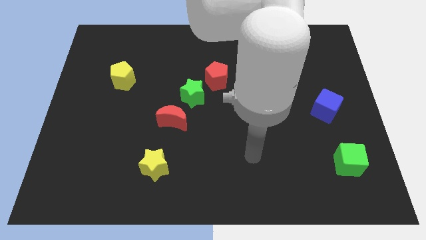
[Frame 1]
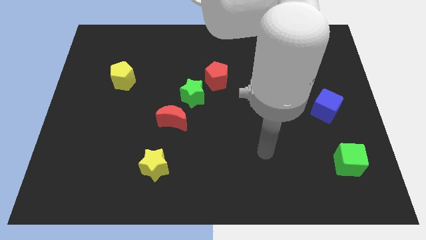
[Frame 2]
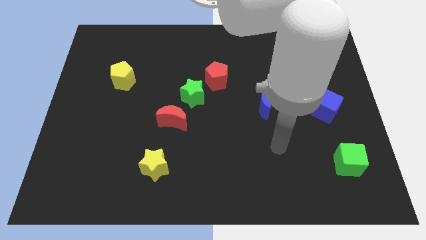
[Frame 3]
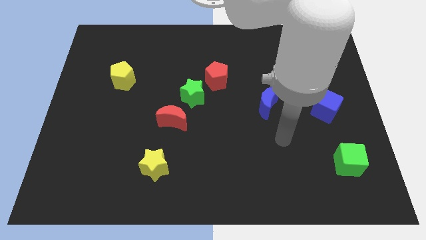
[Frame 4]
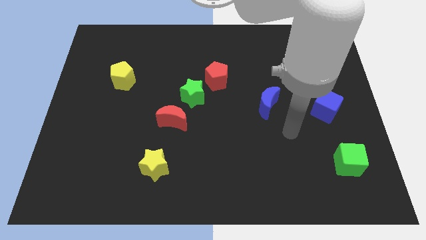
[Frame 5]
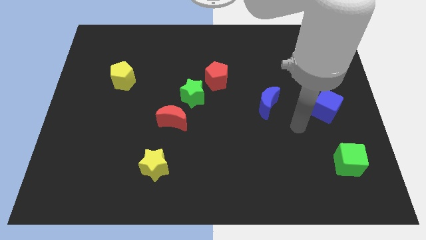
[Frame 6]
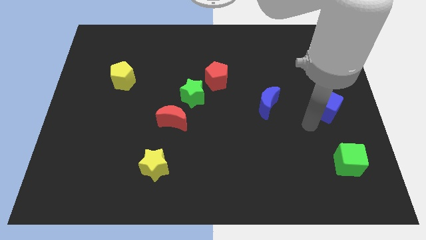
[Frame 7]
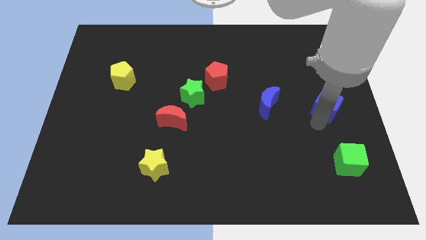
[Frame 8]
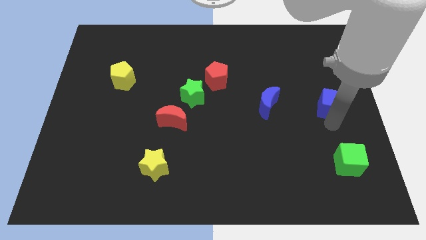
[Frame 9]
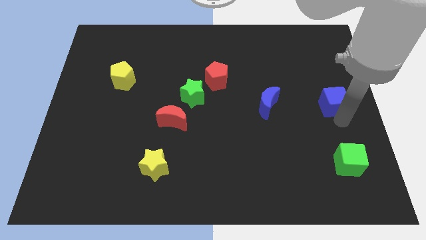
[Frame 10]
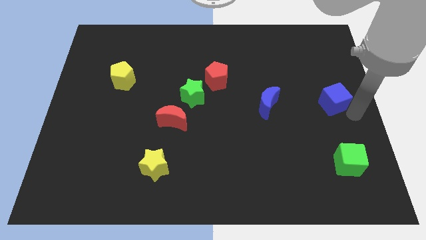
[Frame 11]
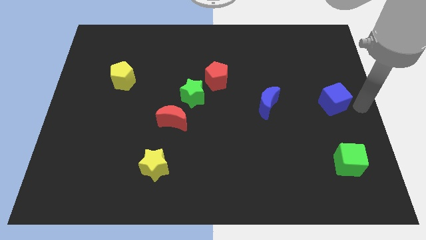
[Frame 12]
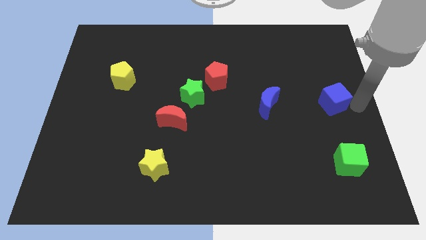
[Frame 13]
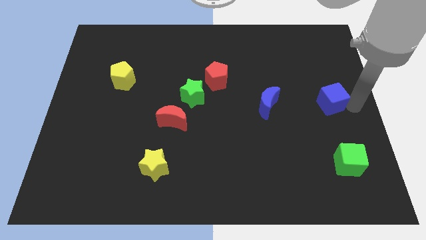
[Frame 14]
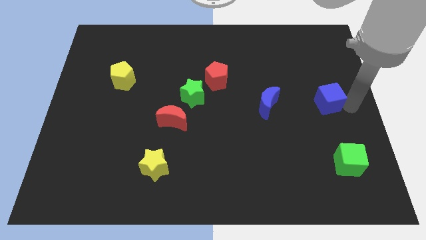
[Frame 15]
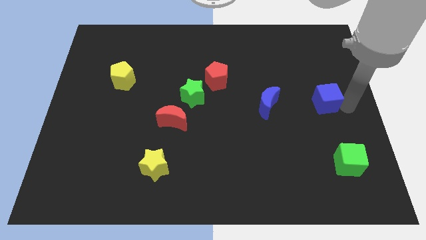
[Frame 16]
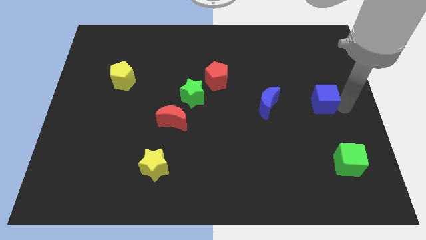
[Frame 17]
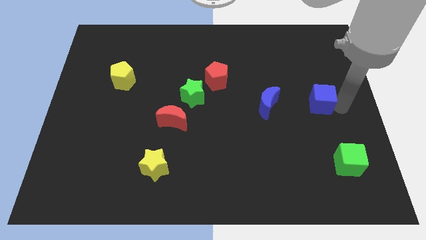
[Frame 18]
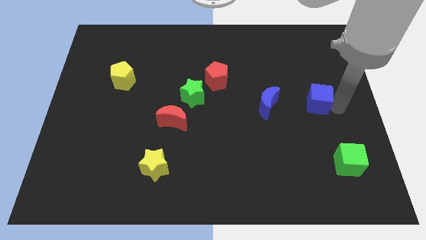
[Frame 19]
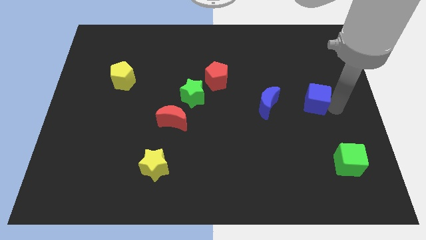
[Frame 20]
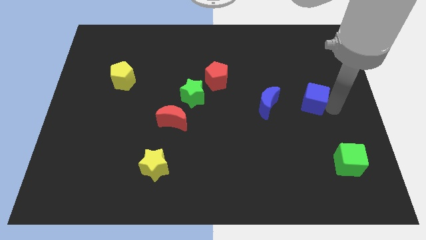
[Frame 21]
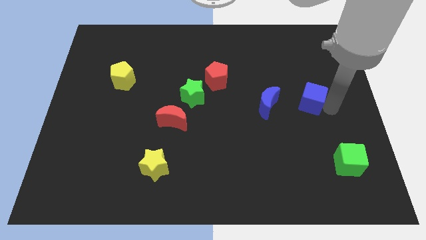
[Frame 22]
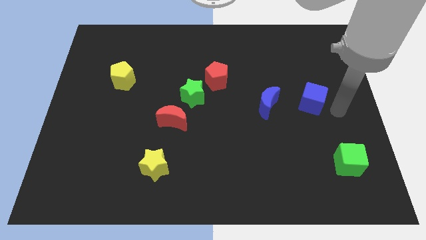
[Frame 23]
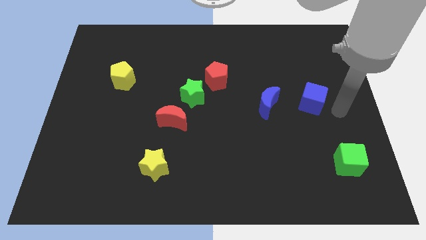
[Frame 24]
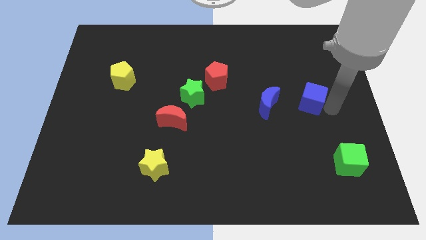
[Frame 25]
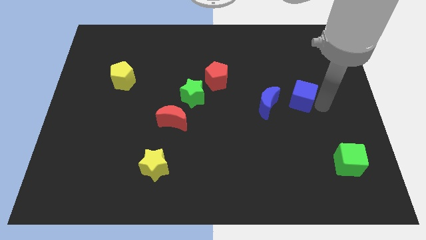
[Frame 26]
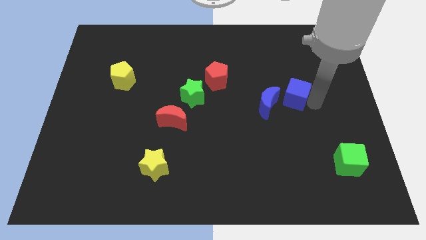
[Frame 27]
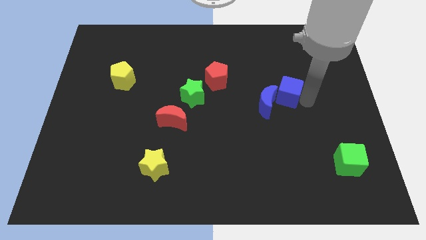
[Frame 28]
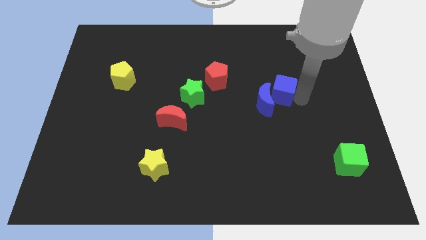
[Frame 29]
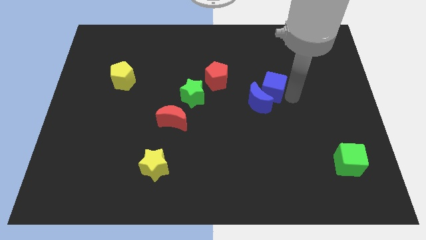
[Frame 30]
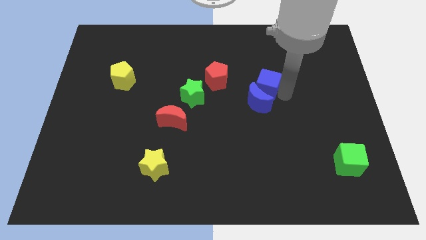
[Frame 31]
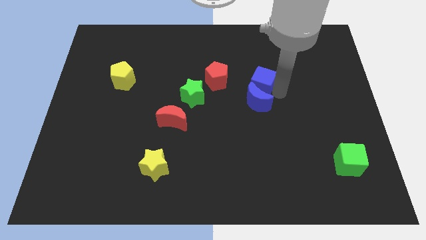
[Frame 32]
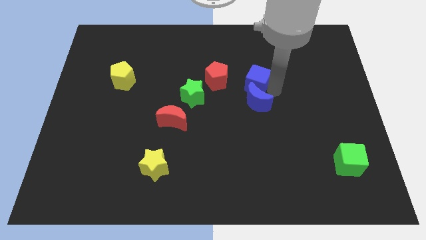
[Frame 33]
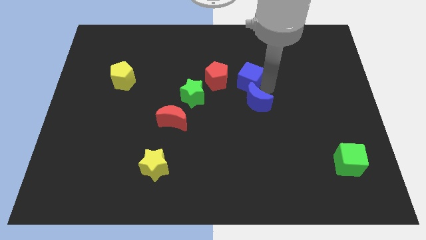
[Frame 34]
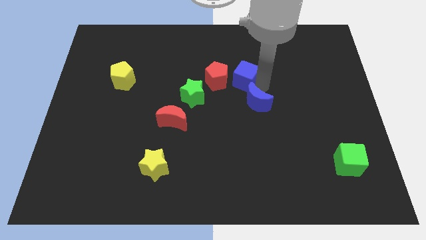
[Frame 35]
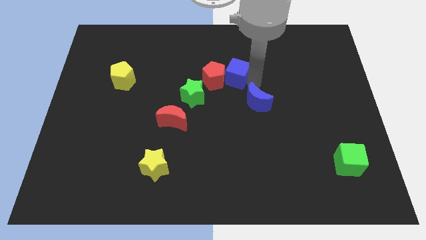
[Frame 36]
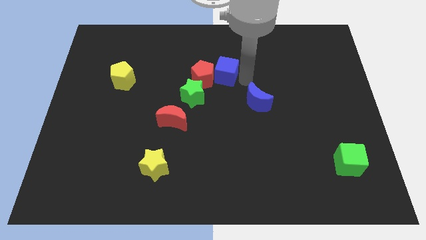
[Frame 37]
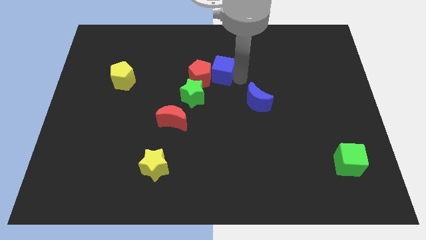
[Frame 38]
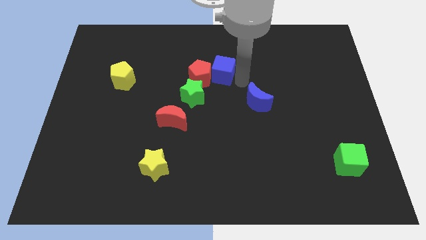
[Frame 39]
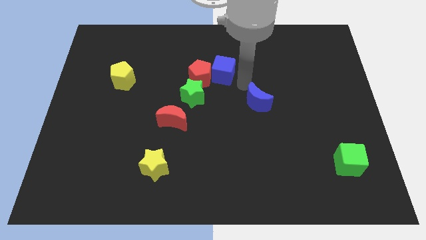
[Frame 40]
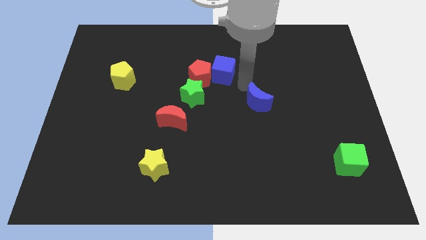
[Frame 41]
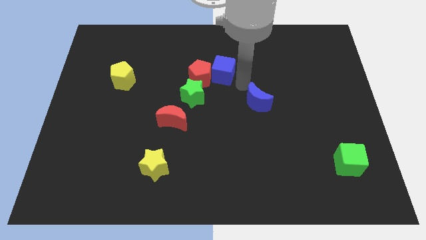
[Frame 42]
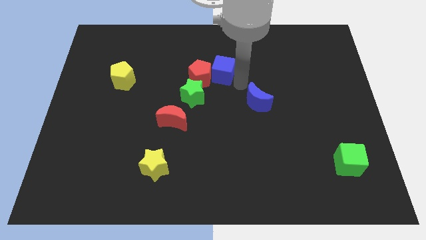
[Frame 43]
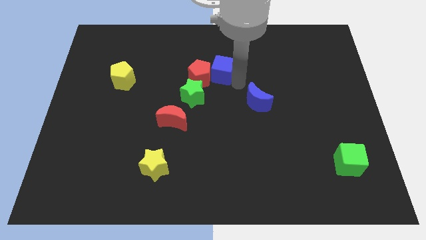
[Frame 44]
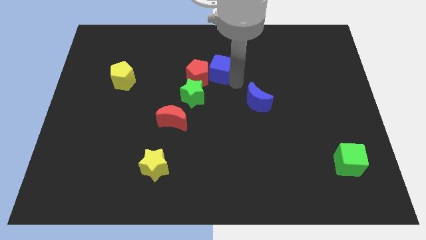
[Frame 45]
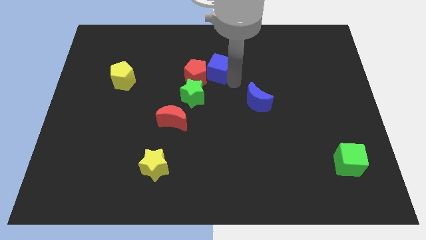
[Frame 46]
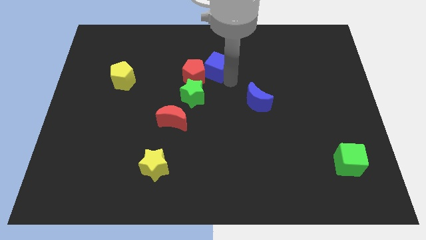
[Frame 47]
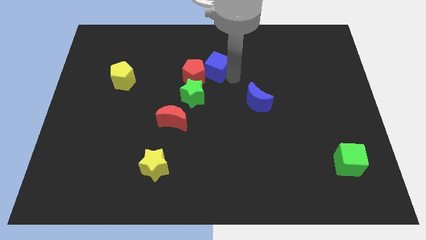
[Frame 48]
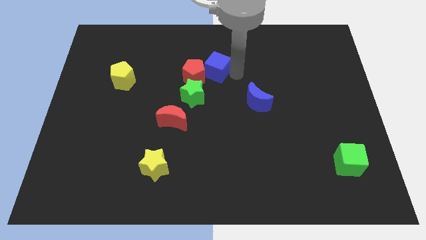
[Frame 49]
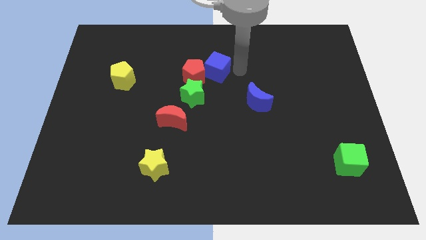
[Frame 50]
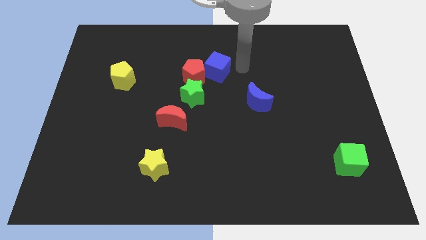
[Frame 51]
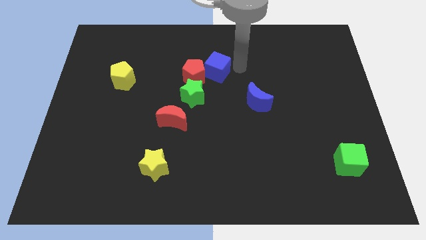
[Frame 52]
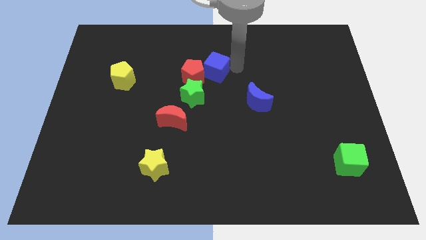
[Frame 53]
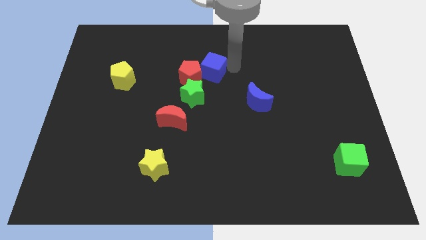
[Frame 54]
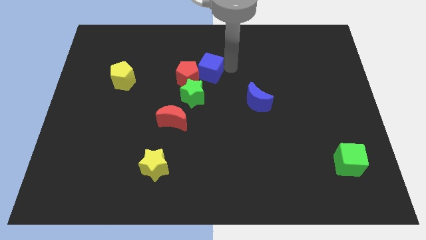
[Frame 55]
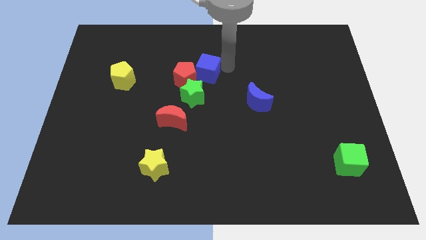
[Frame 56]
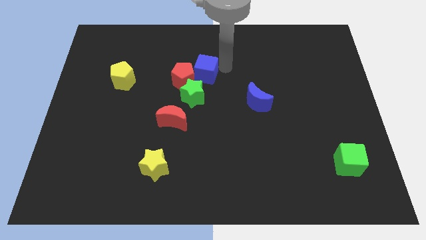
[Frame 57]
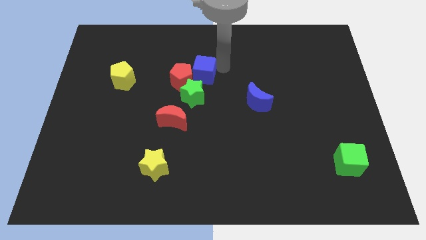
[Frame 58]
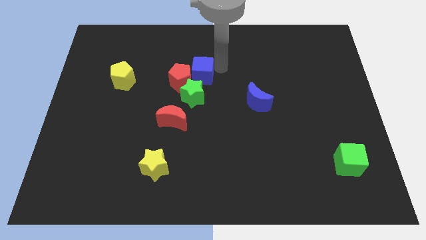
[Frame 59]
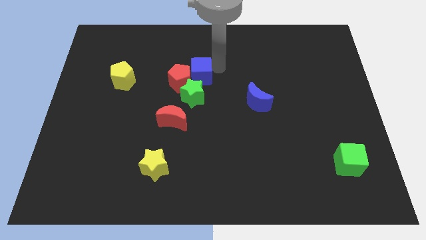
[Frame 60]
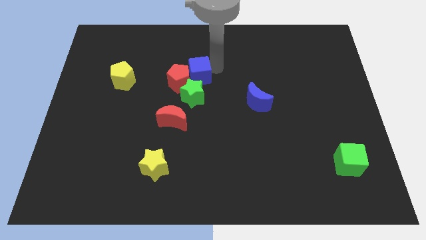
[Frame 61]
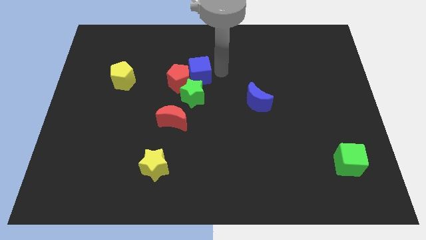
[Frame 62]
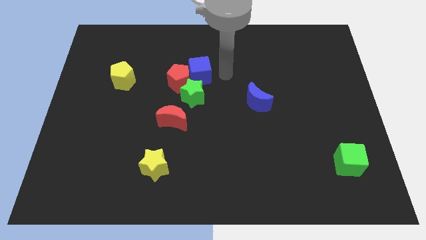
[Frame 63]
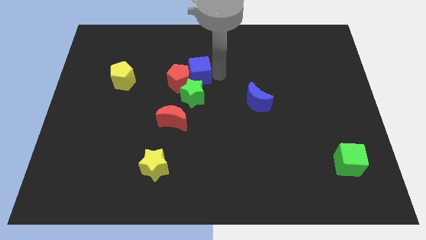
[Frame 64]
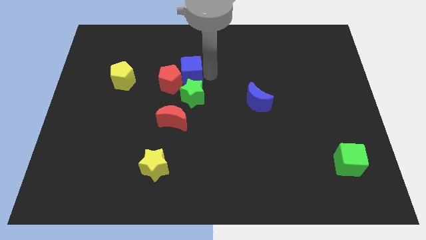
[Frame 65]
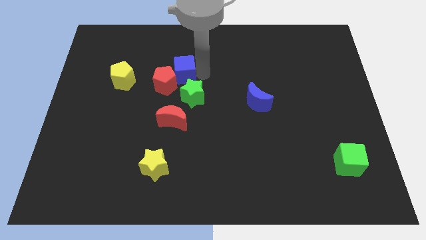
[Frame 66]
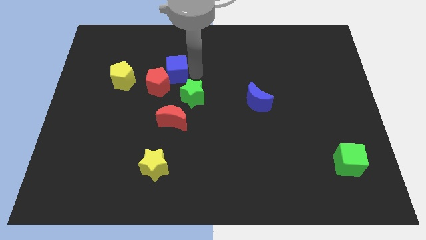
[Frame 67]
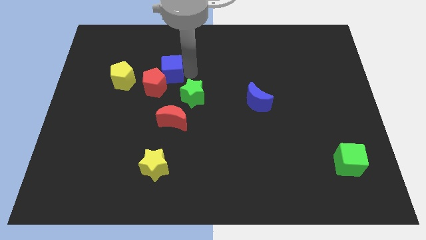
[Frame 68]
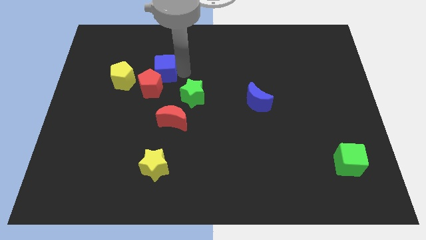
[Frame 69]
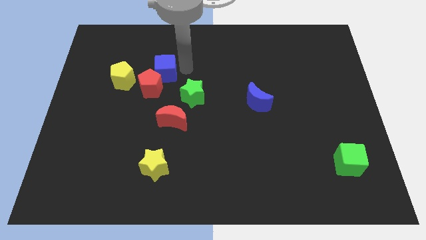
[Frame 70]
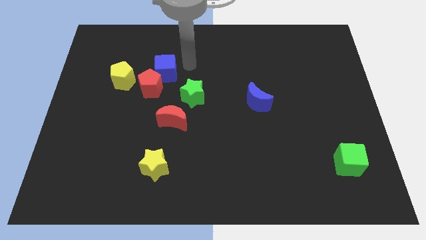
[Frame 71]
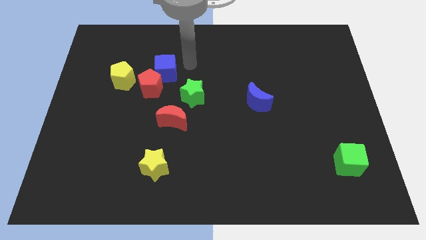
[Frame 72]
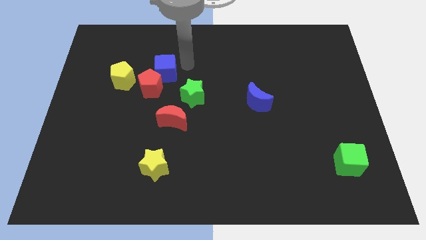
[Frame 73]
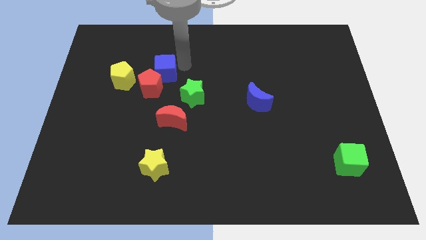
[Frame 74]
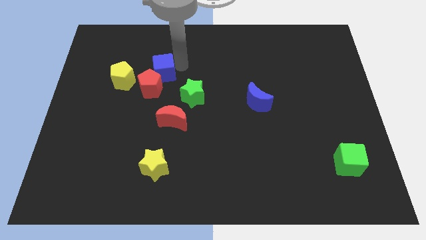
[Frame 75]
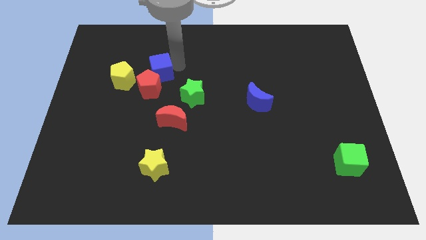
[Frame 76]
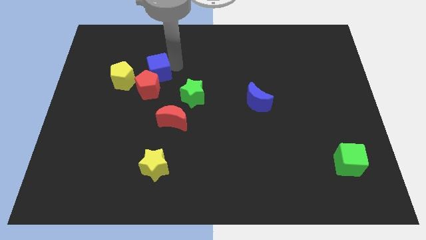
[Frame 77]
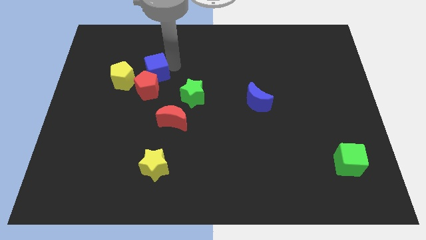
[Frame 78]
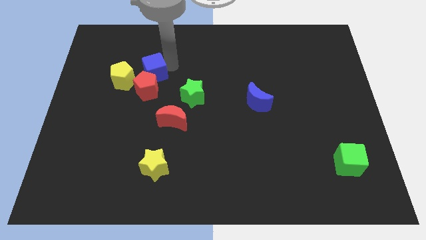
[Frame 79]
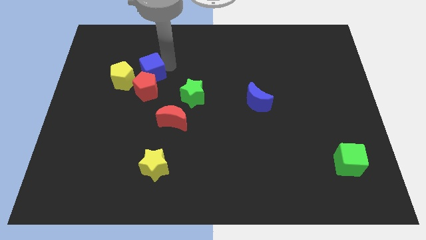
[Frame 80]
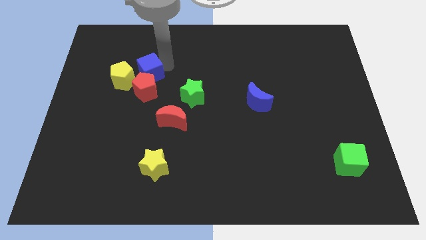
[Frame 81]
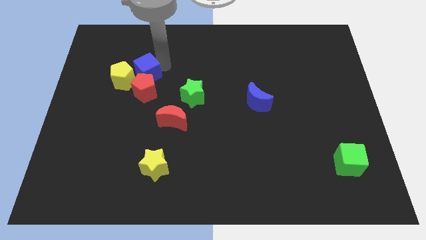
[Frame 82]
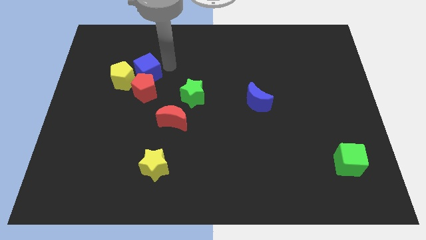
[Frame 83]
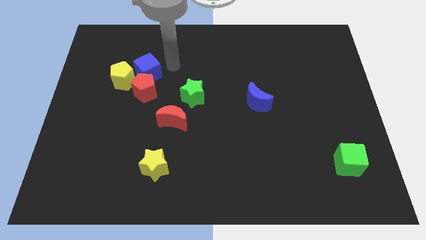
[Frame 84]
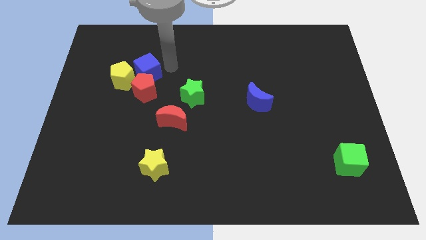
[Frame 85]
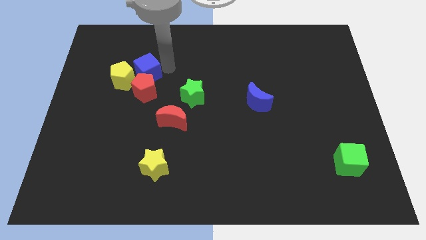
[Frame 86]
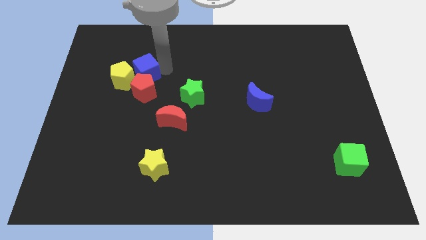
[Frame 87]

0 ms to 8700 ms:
put the blue cube to the yellow pentagon
